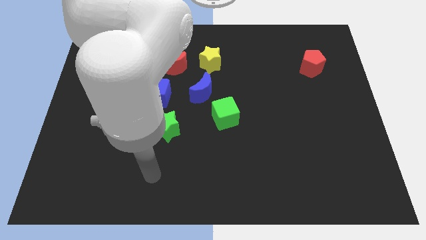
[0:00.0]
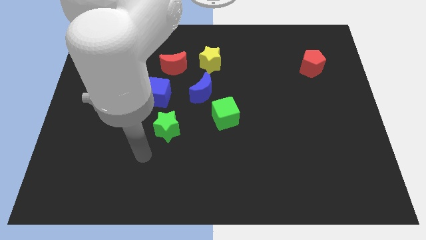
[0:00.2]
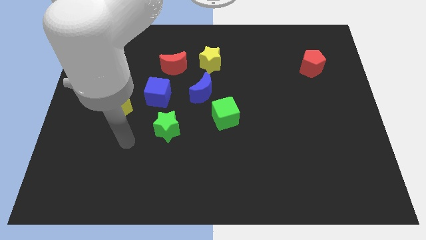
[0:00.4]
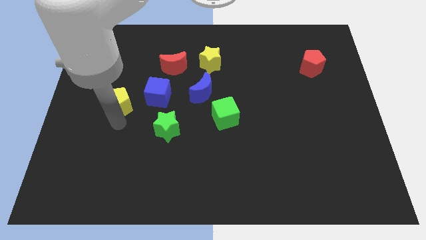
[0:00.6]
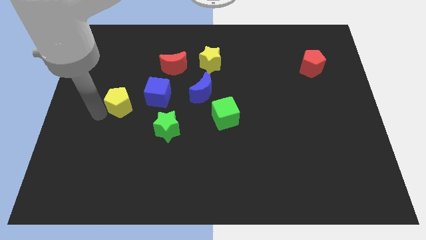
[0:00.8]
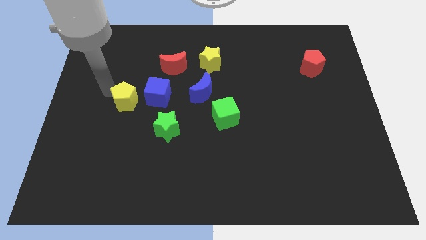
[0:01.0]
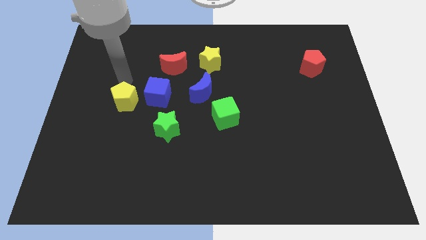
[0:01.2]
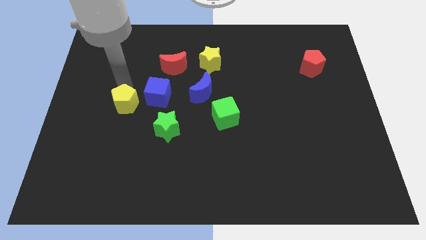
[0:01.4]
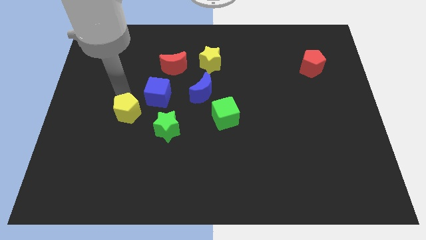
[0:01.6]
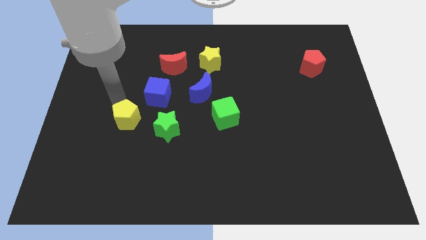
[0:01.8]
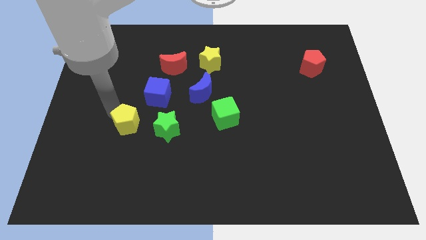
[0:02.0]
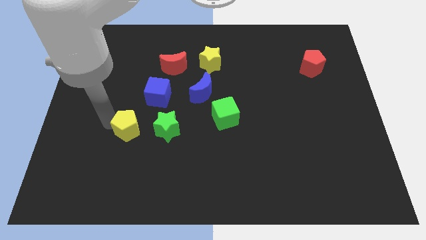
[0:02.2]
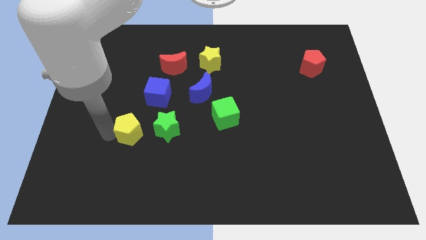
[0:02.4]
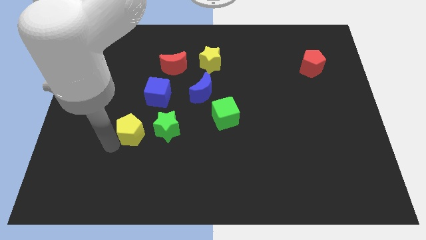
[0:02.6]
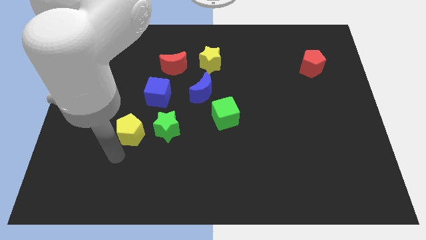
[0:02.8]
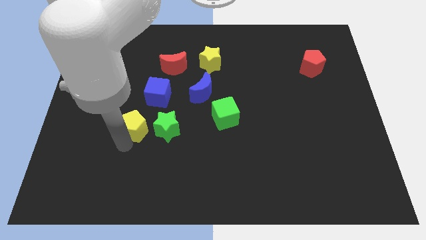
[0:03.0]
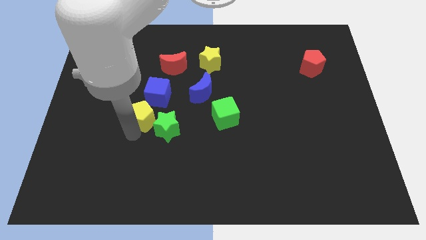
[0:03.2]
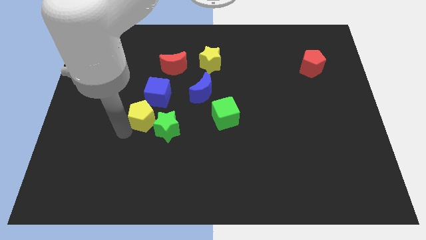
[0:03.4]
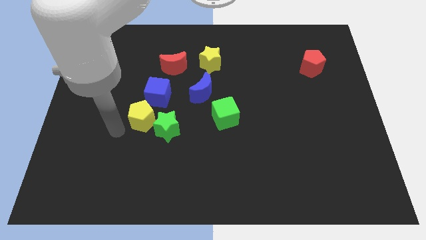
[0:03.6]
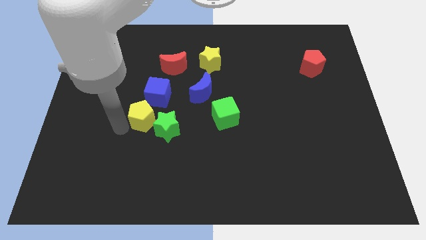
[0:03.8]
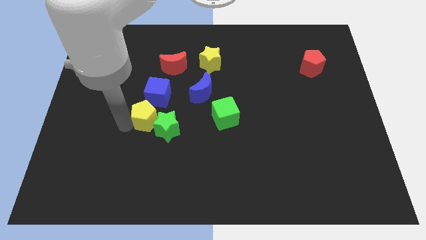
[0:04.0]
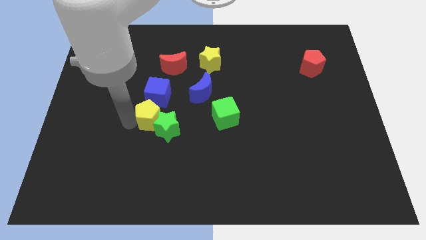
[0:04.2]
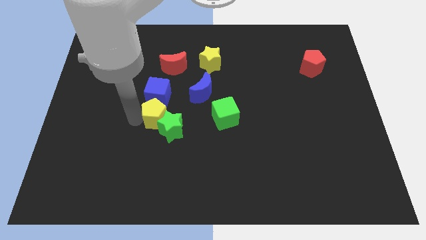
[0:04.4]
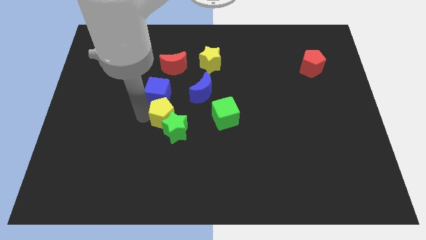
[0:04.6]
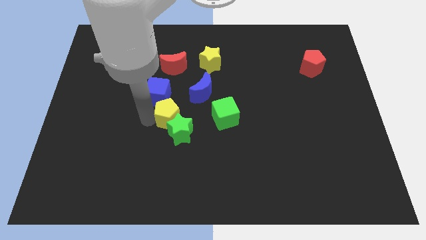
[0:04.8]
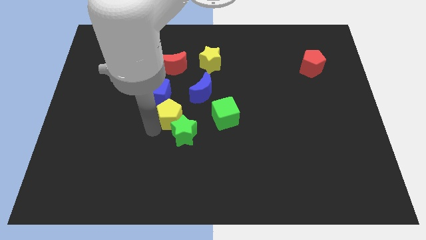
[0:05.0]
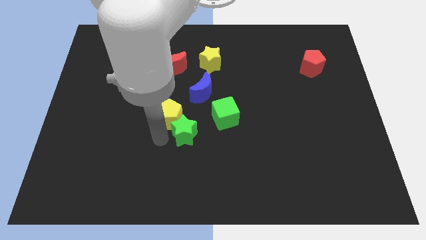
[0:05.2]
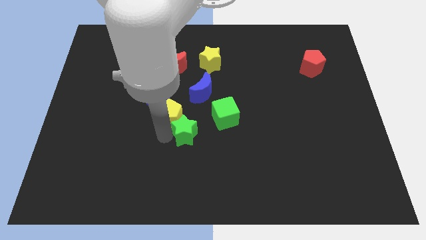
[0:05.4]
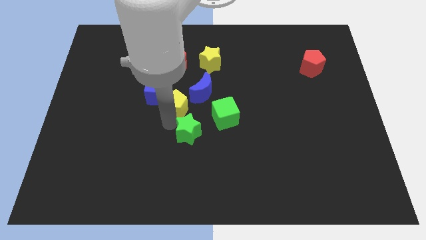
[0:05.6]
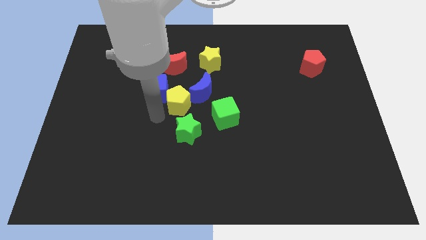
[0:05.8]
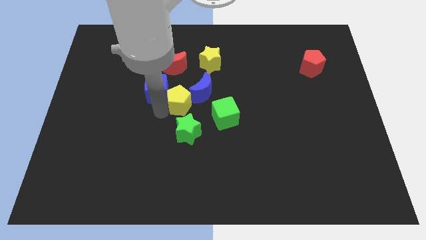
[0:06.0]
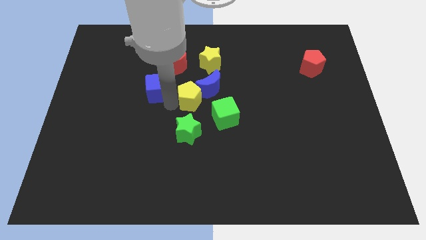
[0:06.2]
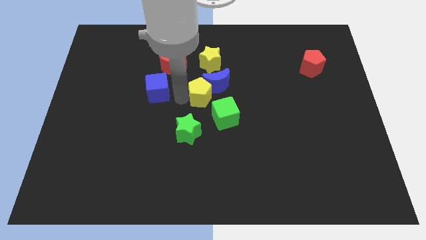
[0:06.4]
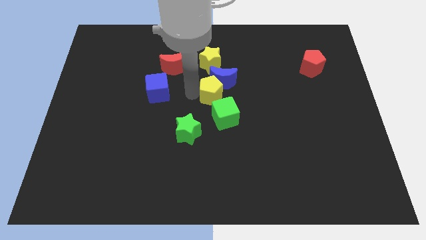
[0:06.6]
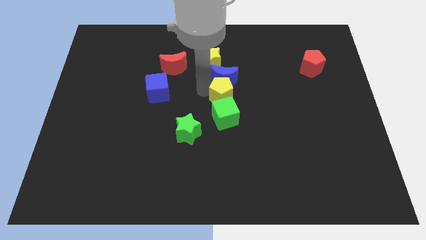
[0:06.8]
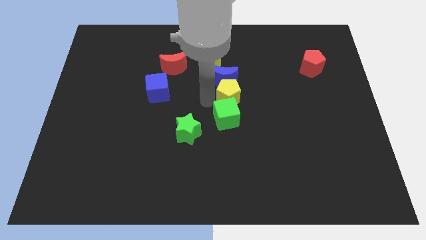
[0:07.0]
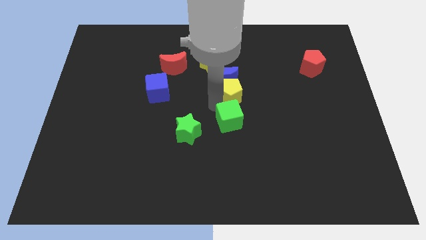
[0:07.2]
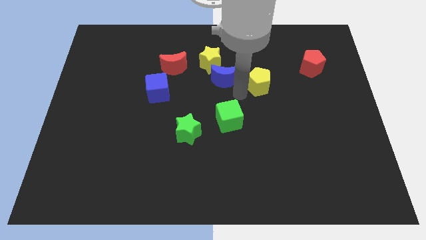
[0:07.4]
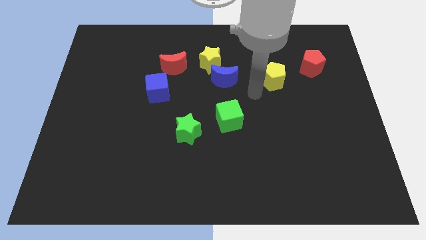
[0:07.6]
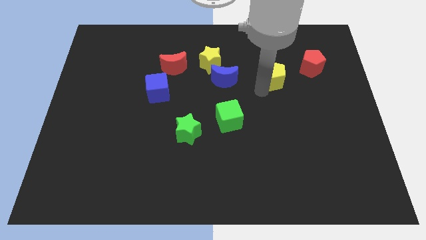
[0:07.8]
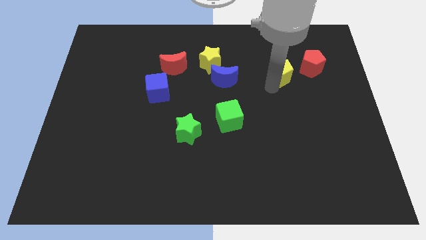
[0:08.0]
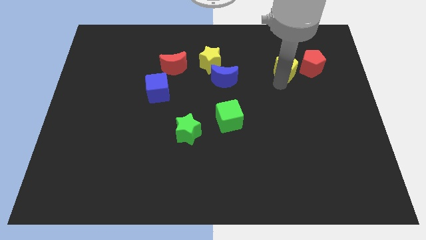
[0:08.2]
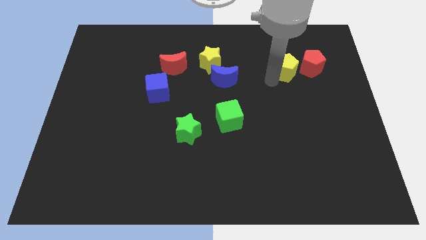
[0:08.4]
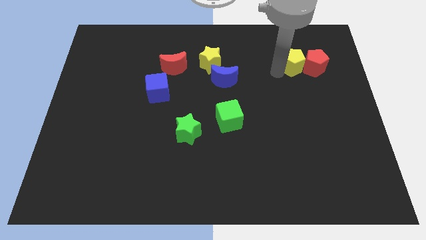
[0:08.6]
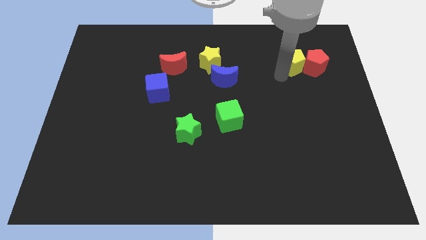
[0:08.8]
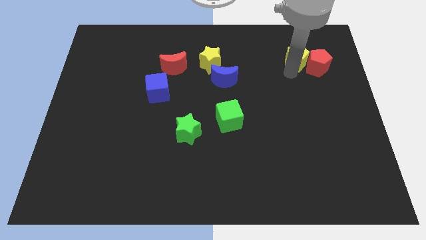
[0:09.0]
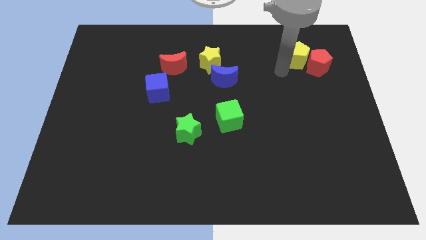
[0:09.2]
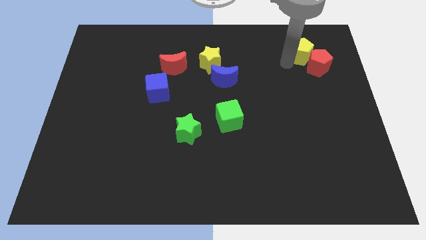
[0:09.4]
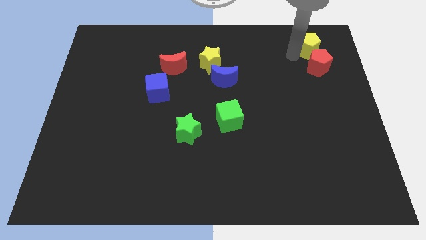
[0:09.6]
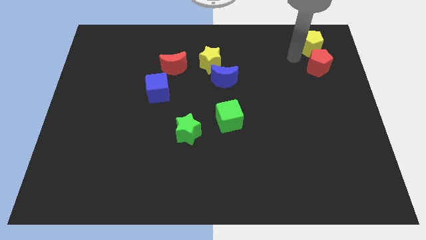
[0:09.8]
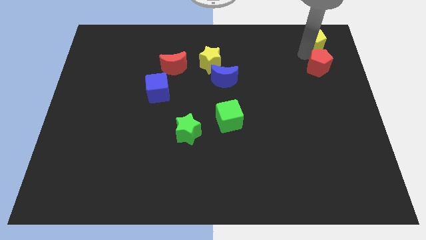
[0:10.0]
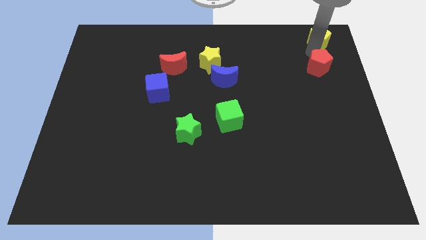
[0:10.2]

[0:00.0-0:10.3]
slide the yellow pentagon to the top right
